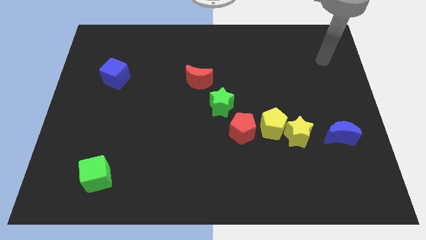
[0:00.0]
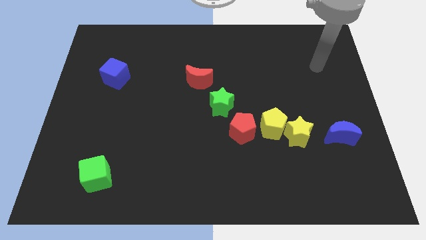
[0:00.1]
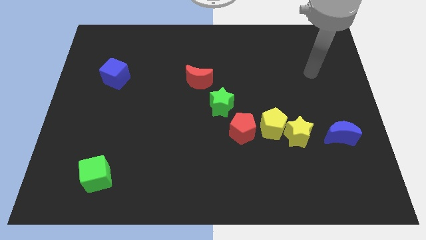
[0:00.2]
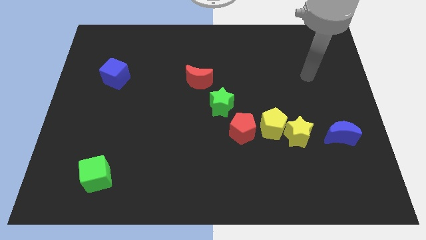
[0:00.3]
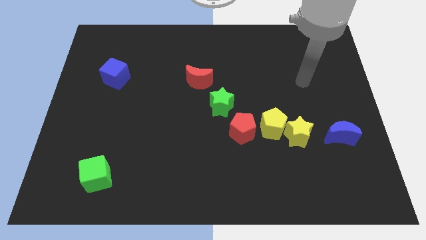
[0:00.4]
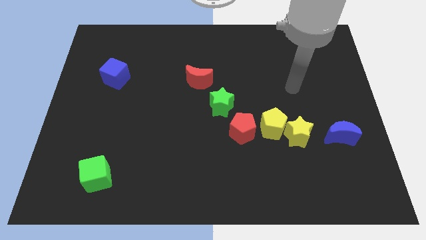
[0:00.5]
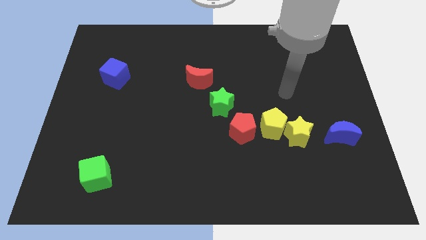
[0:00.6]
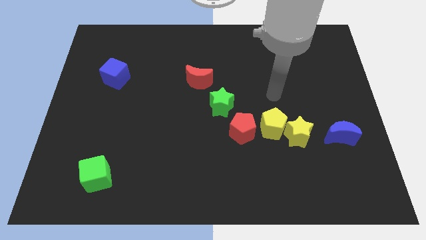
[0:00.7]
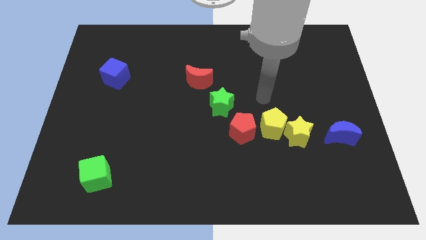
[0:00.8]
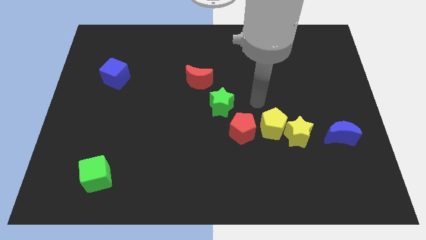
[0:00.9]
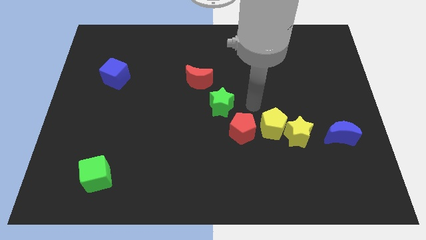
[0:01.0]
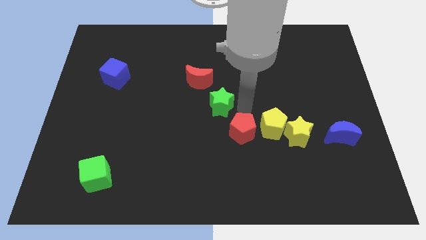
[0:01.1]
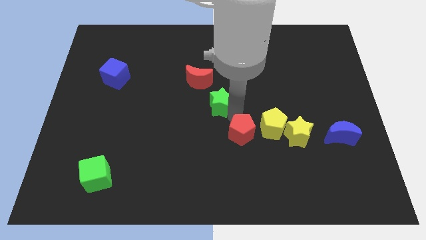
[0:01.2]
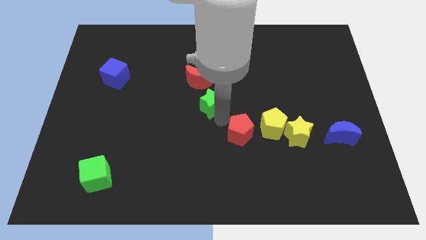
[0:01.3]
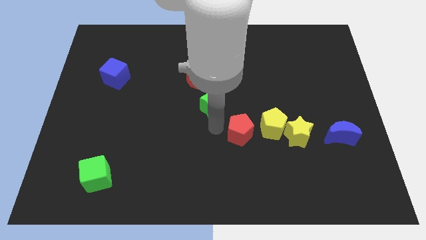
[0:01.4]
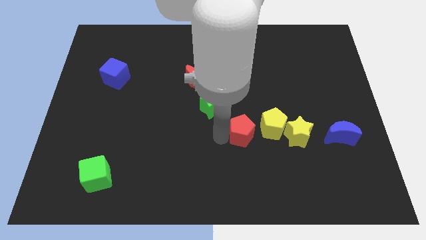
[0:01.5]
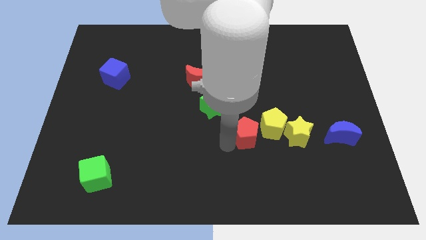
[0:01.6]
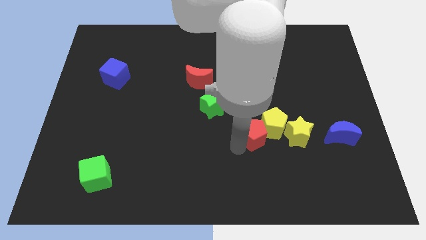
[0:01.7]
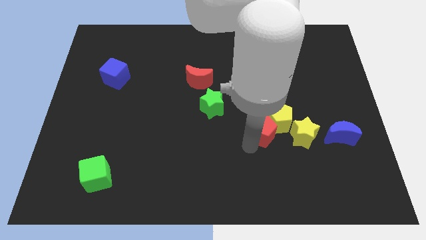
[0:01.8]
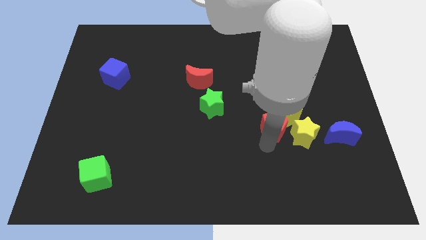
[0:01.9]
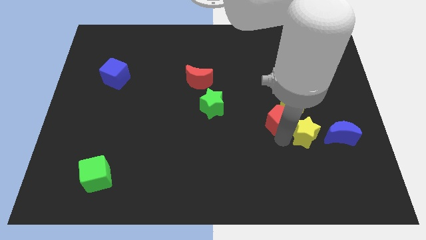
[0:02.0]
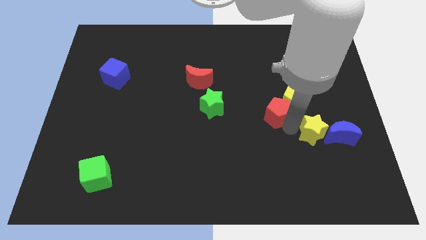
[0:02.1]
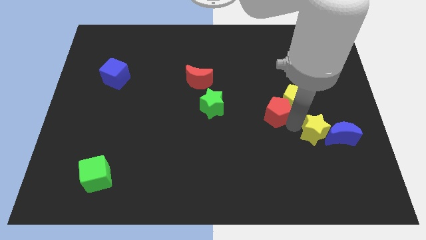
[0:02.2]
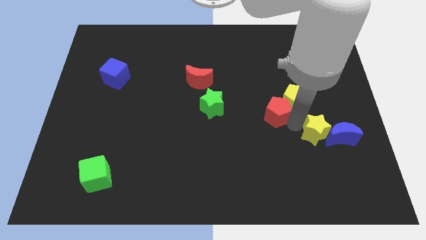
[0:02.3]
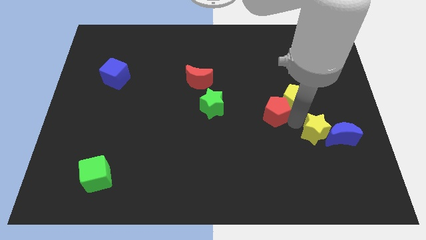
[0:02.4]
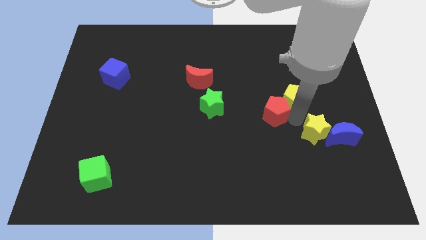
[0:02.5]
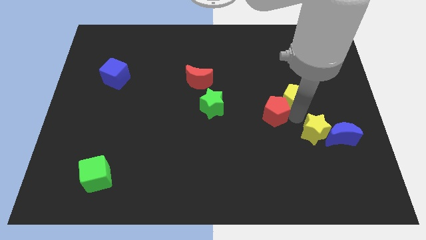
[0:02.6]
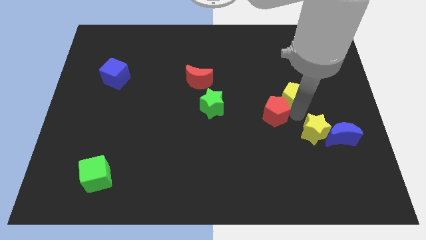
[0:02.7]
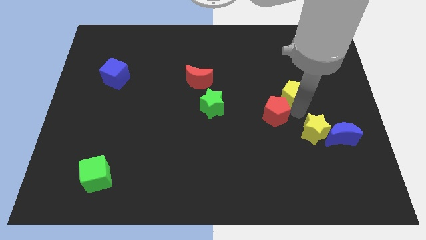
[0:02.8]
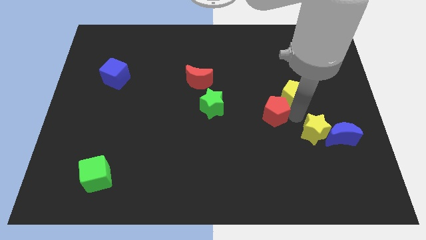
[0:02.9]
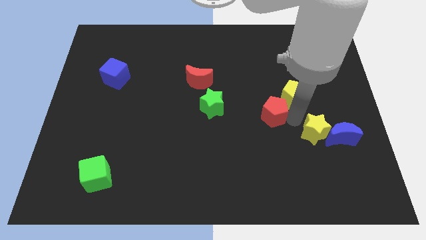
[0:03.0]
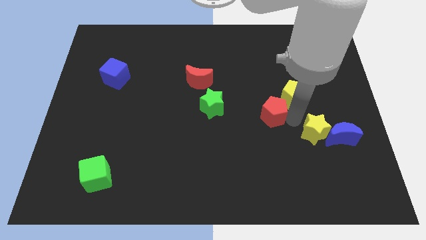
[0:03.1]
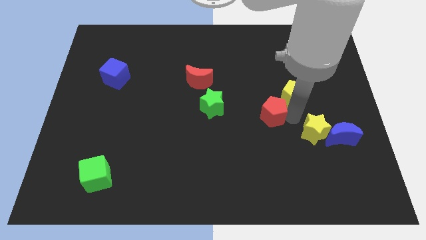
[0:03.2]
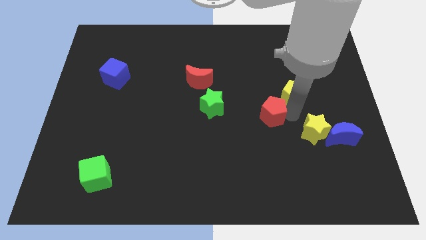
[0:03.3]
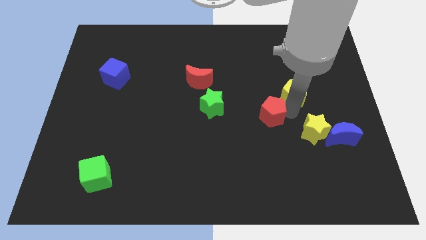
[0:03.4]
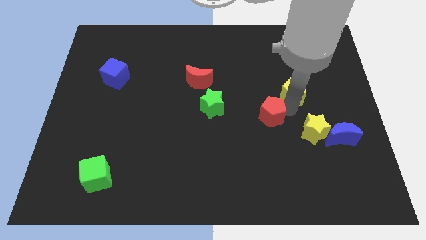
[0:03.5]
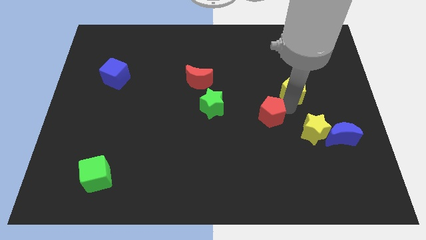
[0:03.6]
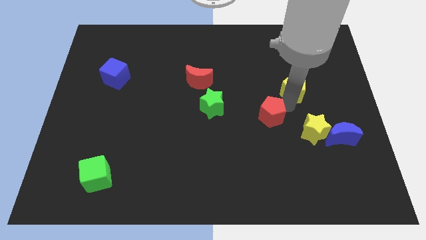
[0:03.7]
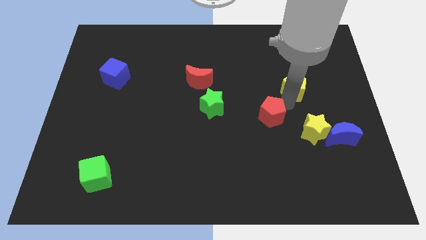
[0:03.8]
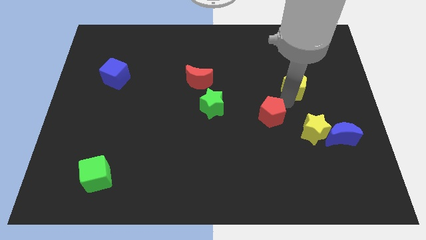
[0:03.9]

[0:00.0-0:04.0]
move the yellow pentagon away from the yellow star and red pentagon

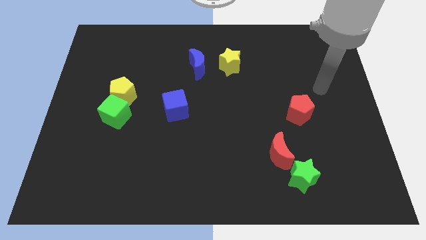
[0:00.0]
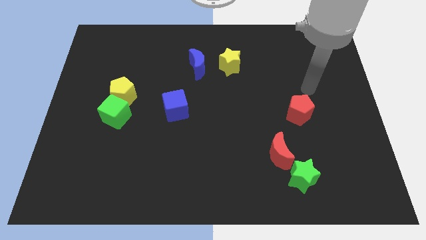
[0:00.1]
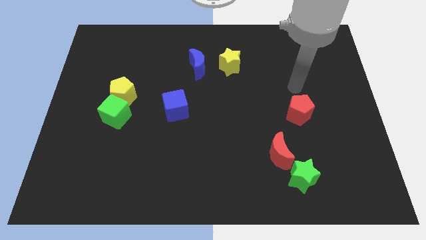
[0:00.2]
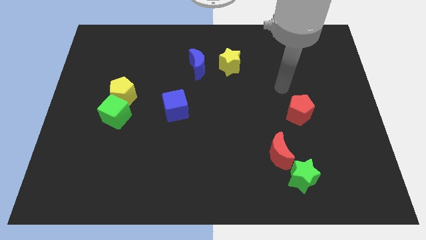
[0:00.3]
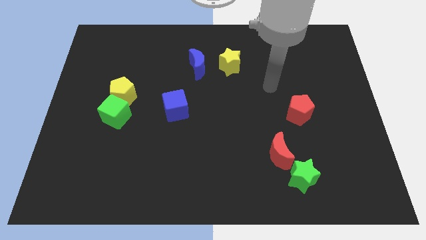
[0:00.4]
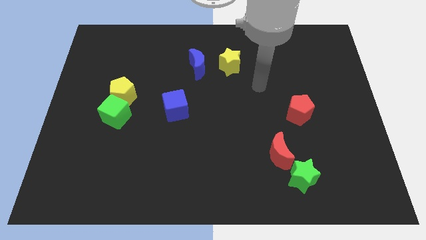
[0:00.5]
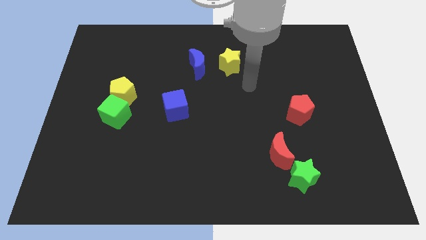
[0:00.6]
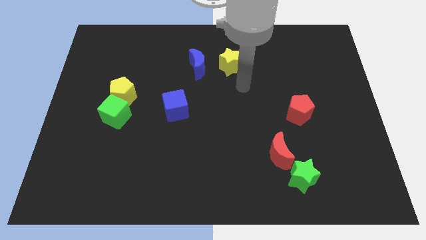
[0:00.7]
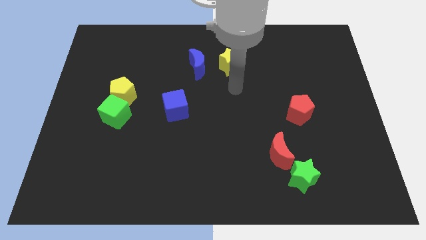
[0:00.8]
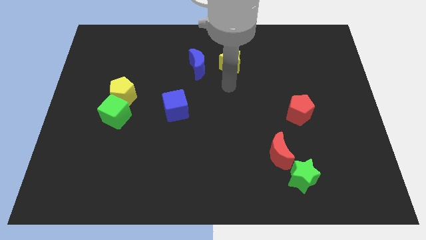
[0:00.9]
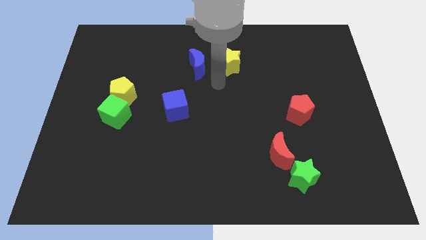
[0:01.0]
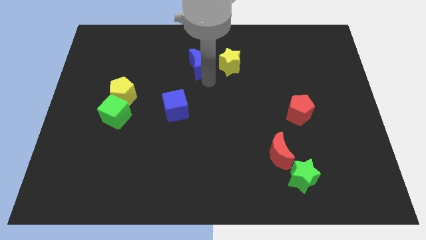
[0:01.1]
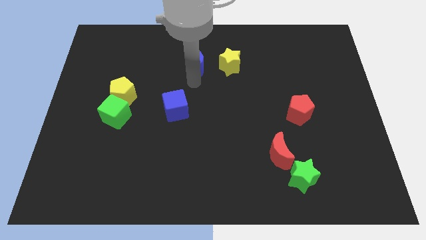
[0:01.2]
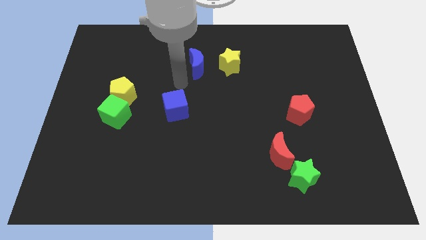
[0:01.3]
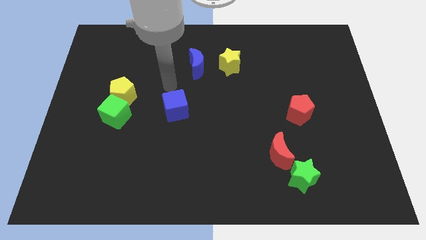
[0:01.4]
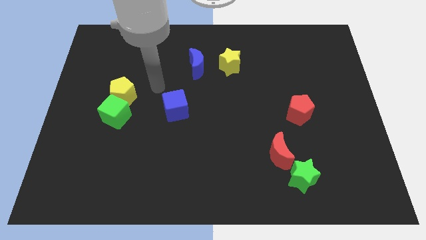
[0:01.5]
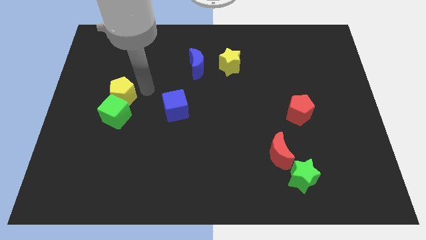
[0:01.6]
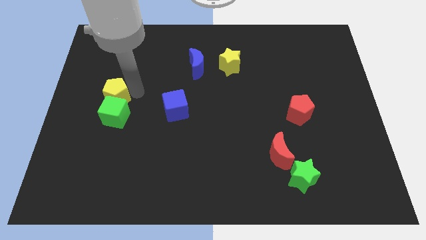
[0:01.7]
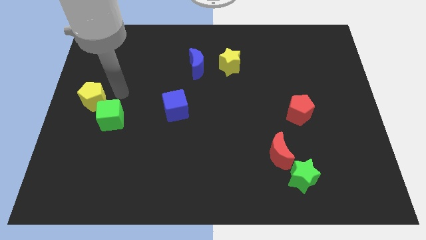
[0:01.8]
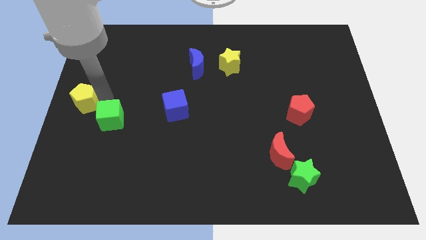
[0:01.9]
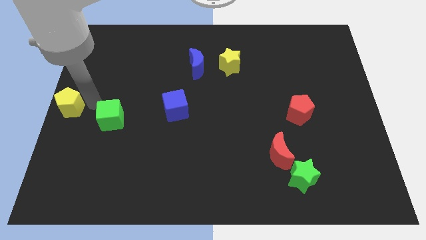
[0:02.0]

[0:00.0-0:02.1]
separate the green cube from the yellow pentagon

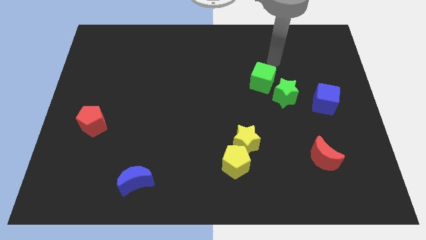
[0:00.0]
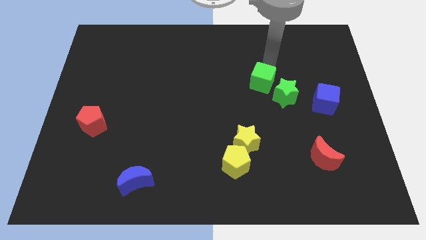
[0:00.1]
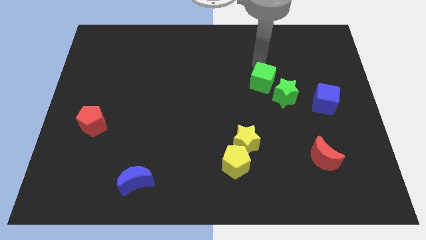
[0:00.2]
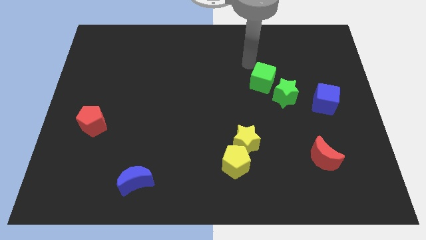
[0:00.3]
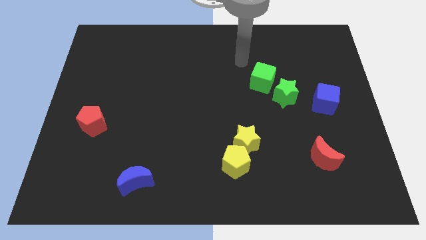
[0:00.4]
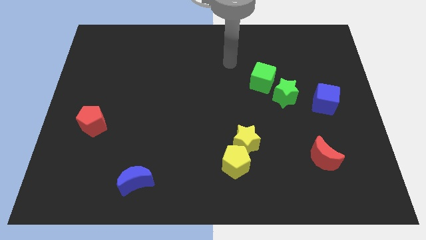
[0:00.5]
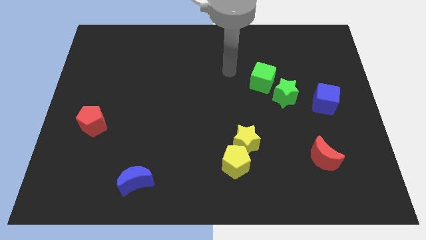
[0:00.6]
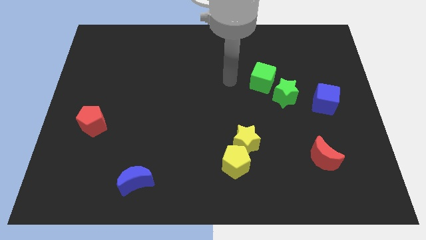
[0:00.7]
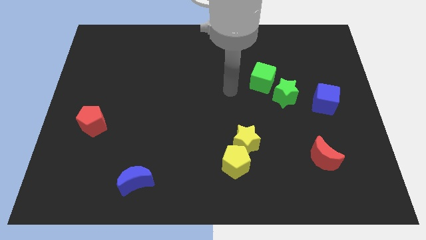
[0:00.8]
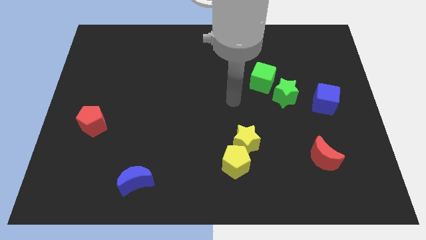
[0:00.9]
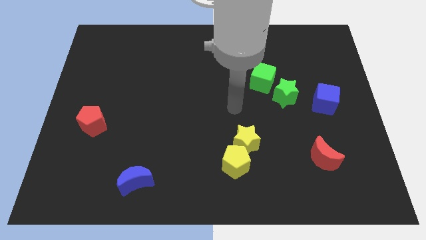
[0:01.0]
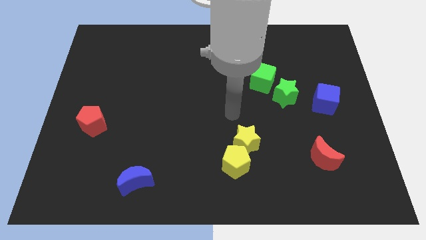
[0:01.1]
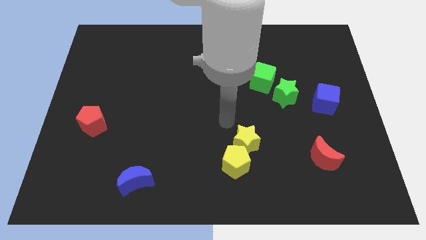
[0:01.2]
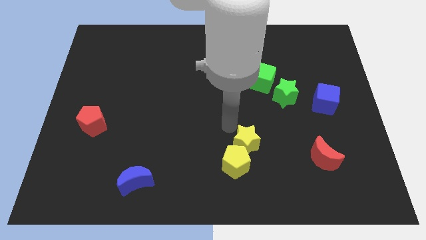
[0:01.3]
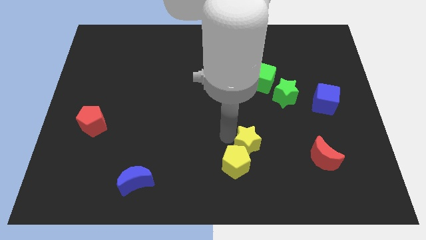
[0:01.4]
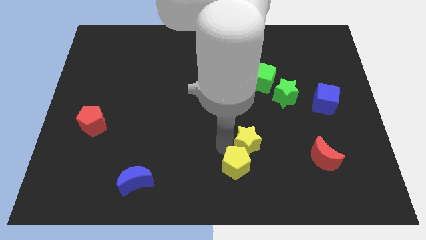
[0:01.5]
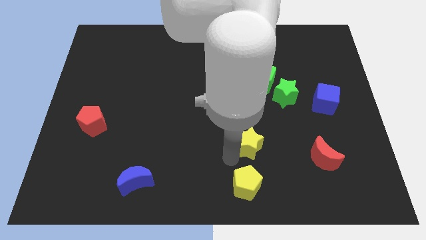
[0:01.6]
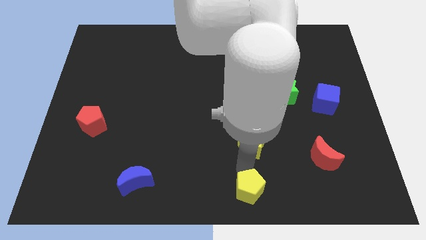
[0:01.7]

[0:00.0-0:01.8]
separate the yellow star from the yellow pentagon

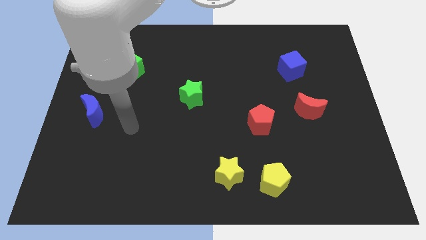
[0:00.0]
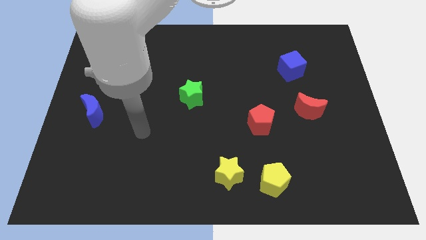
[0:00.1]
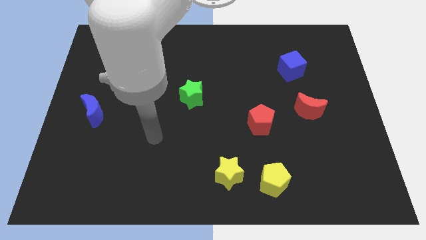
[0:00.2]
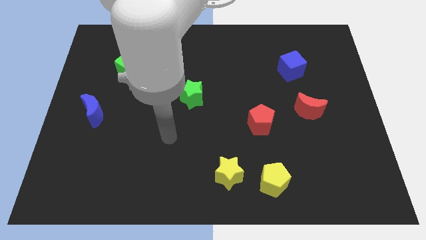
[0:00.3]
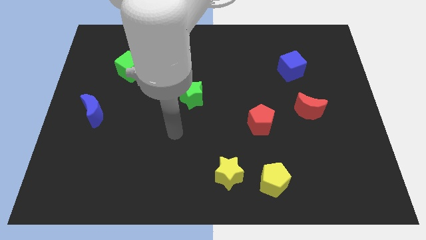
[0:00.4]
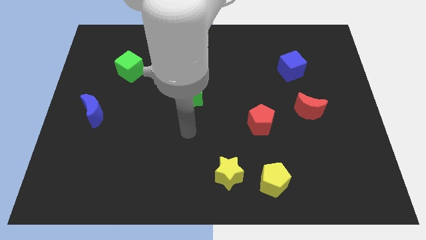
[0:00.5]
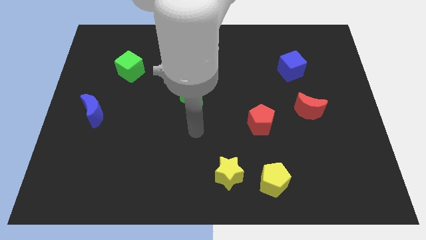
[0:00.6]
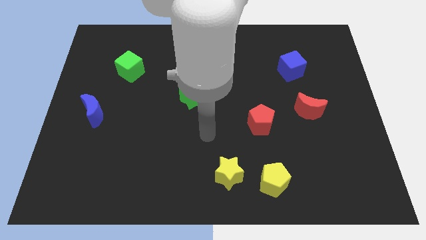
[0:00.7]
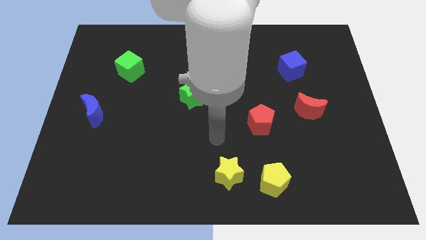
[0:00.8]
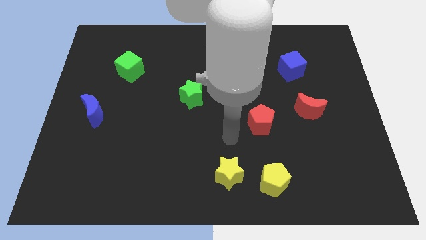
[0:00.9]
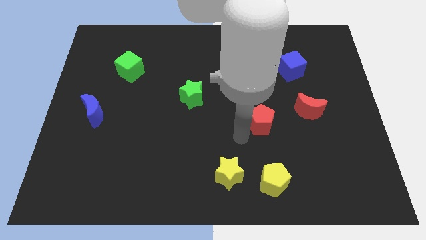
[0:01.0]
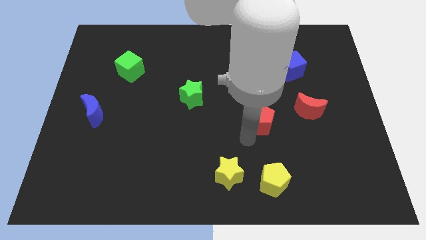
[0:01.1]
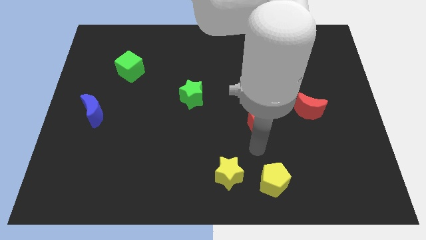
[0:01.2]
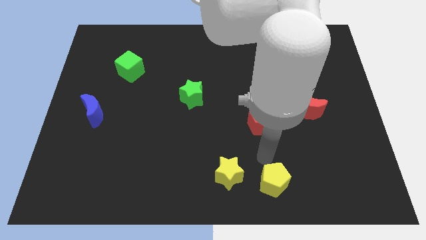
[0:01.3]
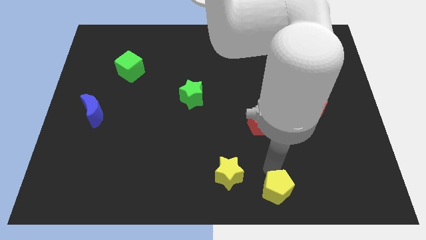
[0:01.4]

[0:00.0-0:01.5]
pull the yellow star apart from the yellow pentagon
